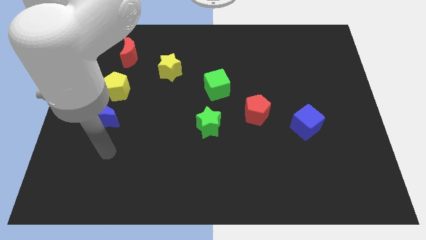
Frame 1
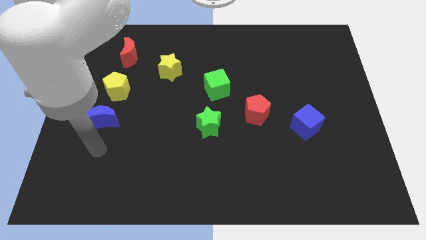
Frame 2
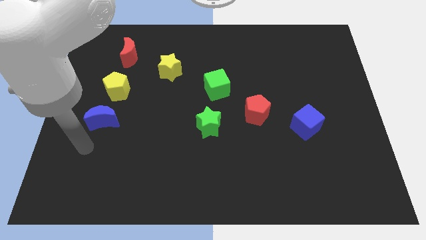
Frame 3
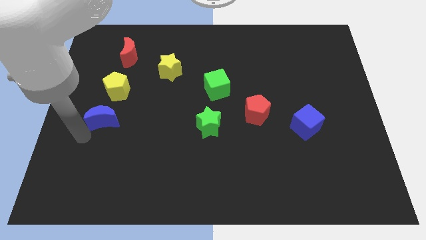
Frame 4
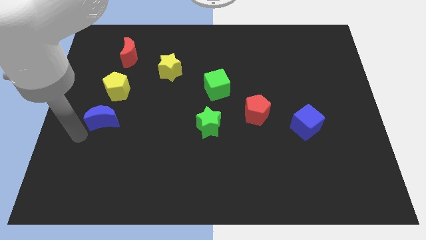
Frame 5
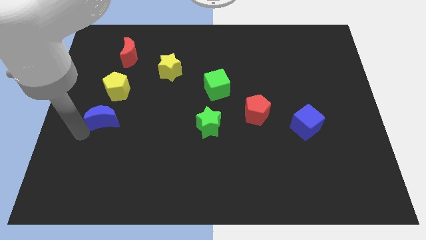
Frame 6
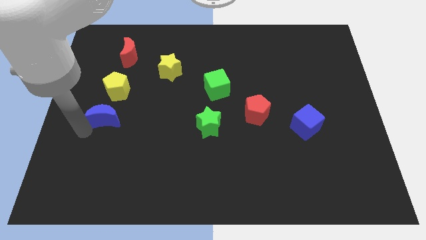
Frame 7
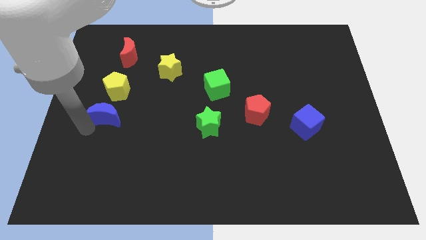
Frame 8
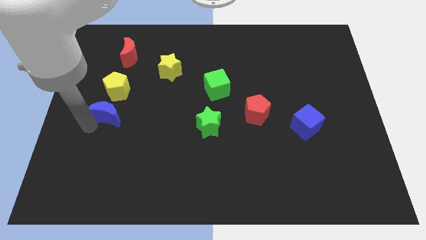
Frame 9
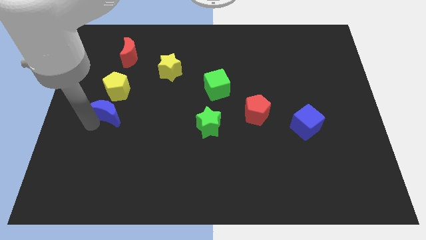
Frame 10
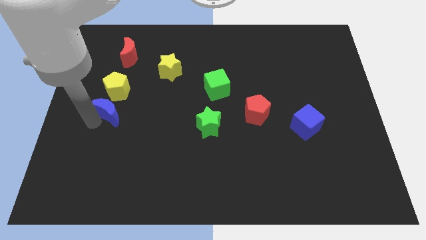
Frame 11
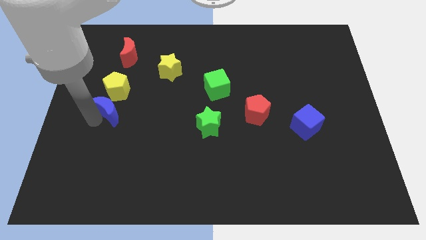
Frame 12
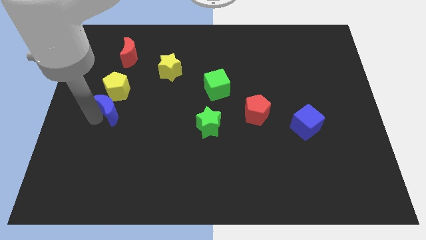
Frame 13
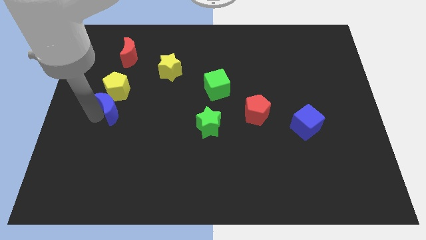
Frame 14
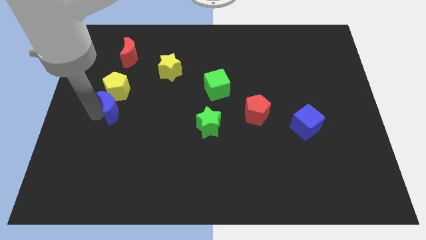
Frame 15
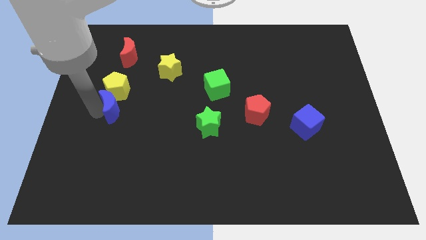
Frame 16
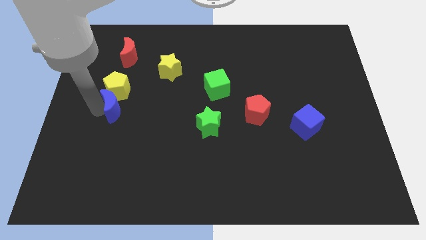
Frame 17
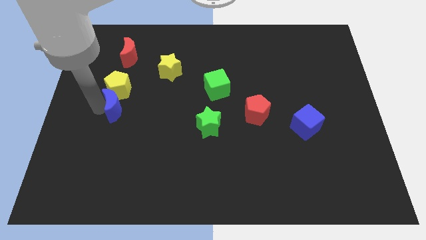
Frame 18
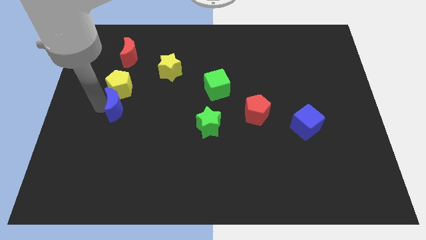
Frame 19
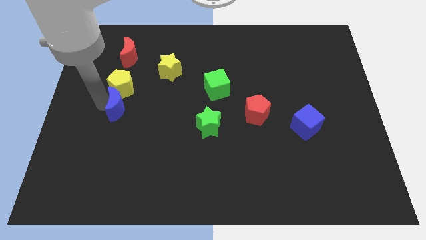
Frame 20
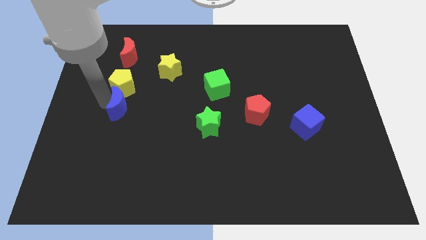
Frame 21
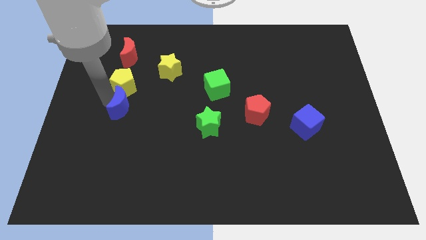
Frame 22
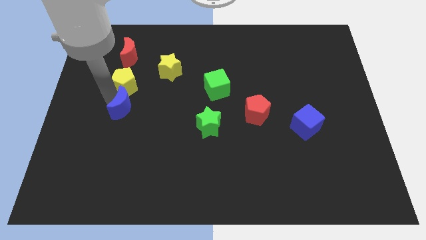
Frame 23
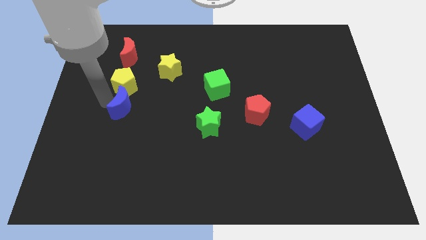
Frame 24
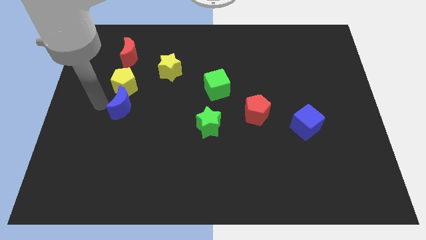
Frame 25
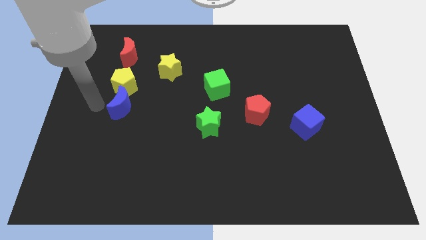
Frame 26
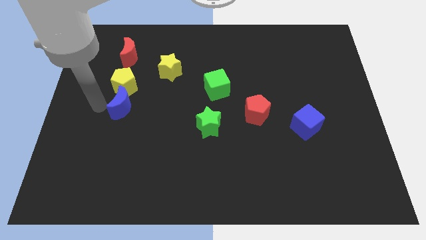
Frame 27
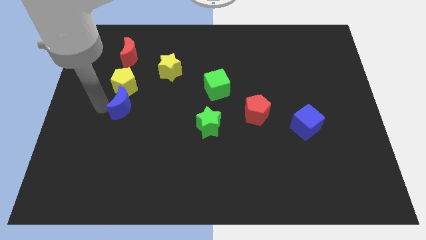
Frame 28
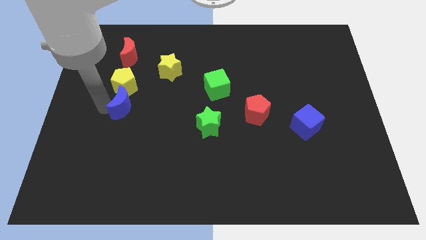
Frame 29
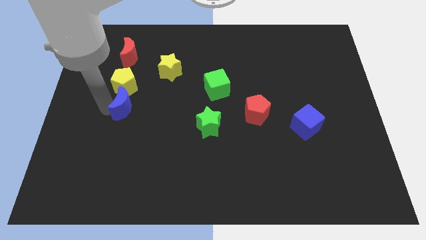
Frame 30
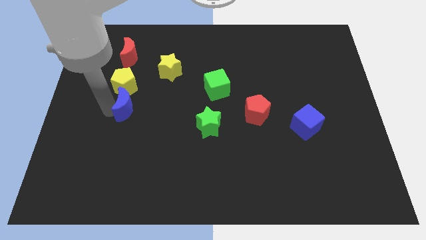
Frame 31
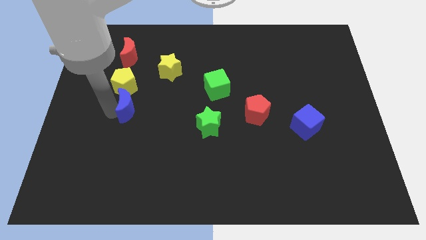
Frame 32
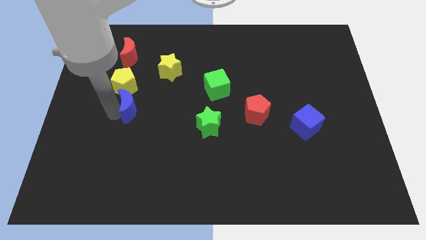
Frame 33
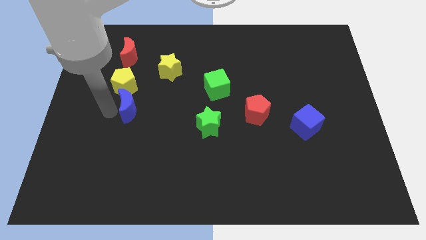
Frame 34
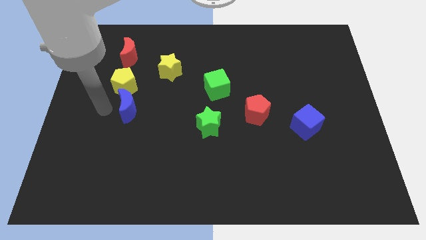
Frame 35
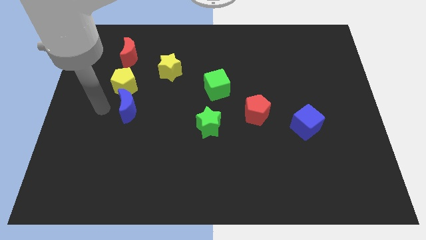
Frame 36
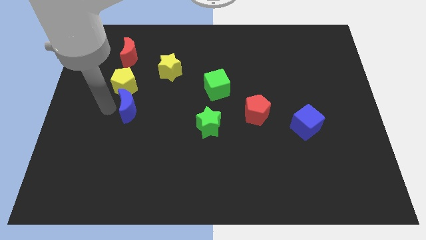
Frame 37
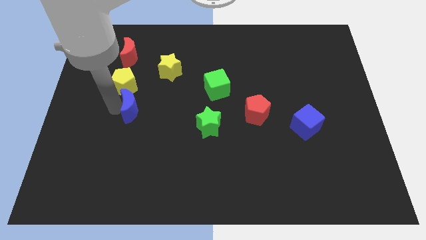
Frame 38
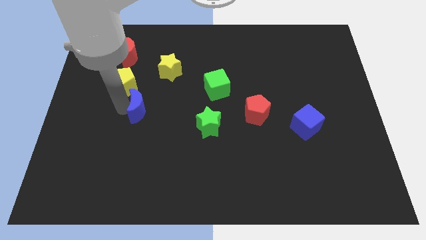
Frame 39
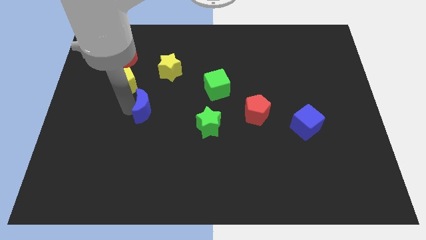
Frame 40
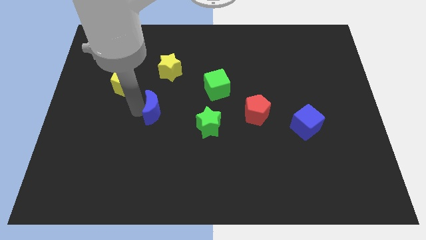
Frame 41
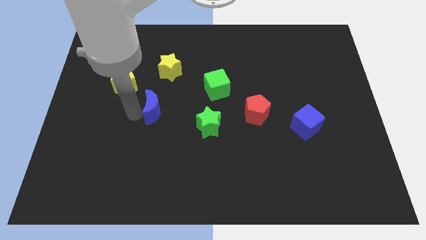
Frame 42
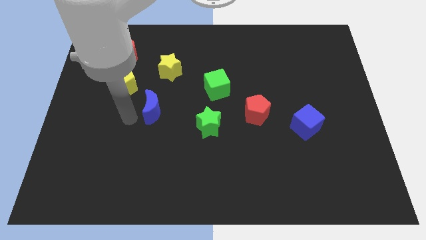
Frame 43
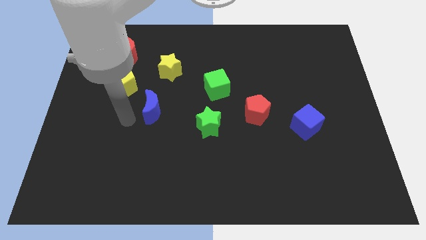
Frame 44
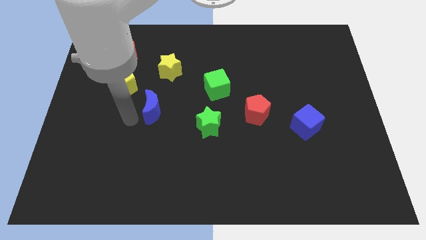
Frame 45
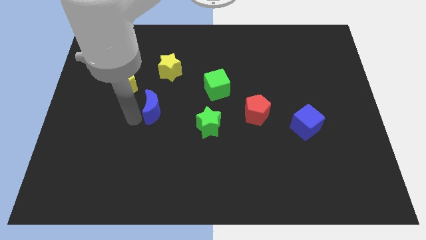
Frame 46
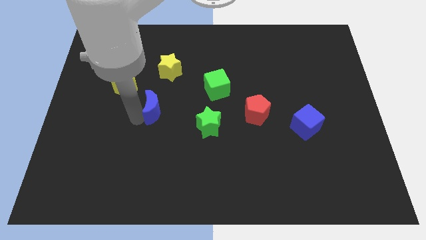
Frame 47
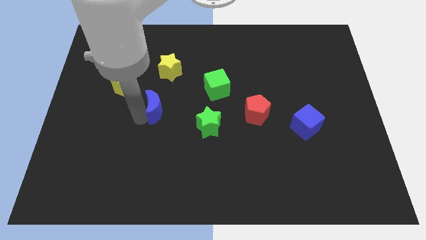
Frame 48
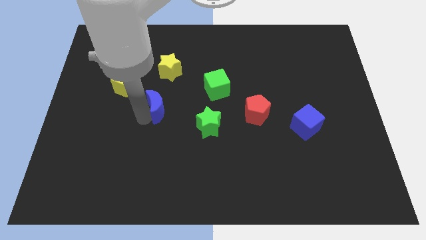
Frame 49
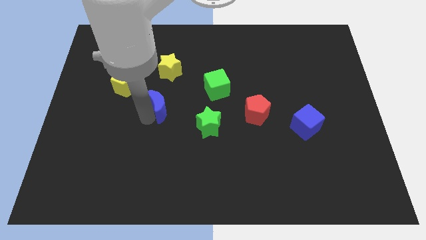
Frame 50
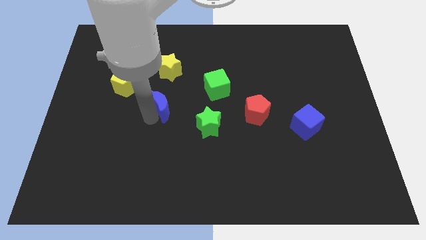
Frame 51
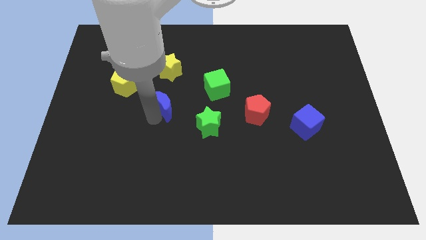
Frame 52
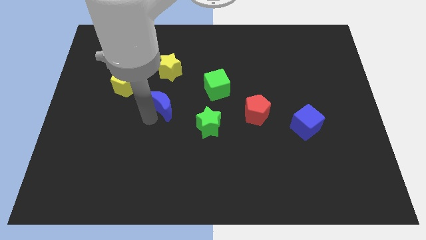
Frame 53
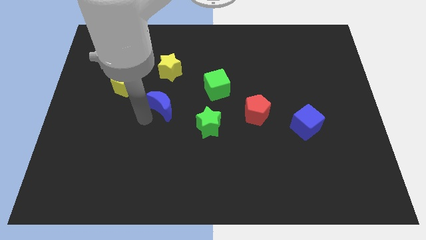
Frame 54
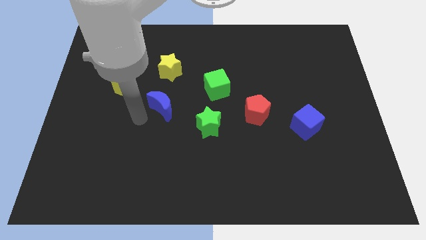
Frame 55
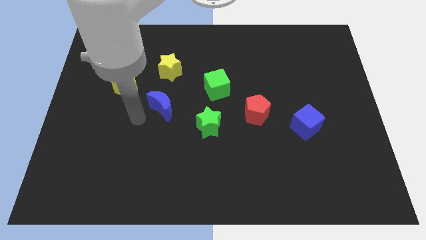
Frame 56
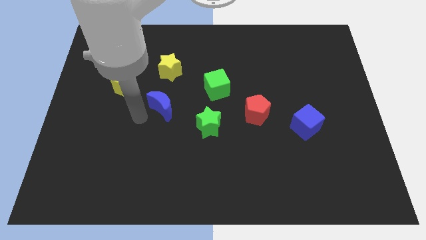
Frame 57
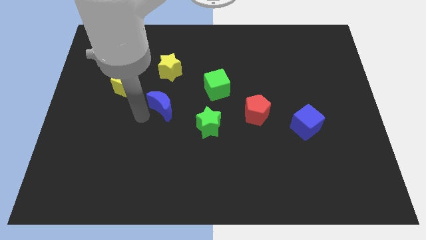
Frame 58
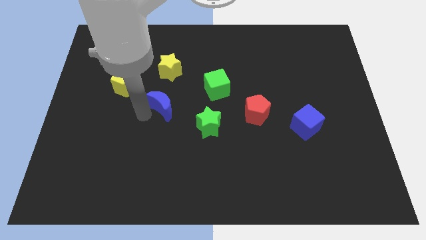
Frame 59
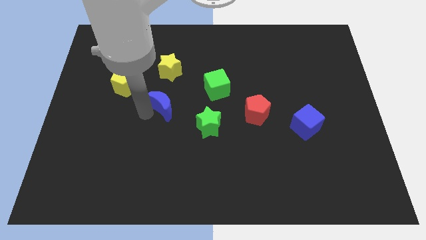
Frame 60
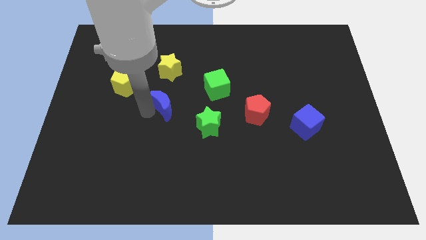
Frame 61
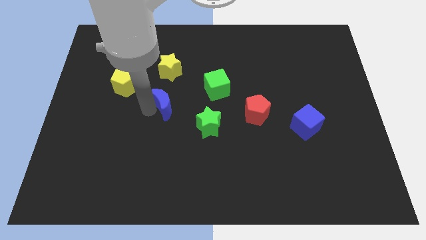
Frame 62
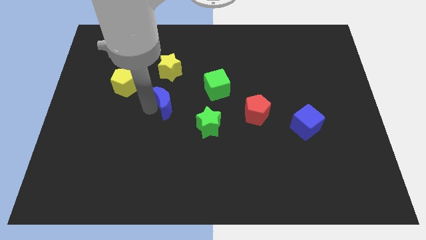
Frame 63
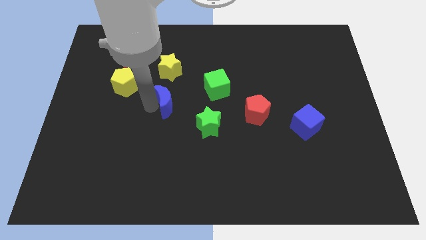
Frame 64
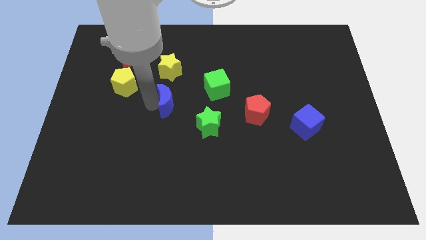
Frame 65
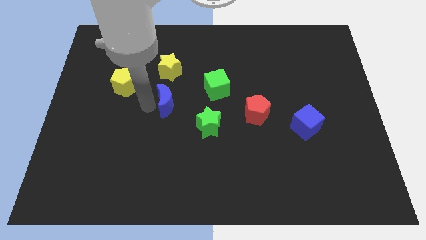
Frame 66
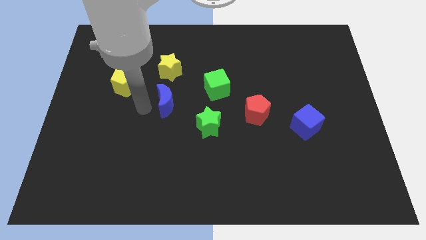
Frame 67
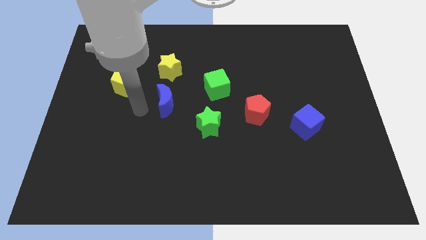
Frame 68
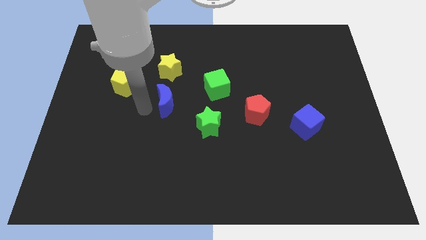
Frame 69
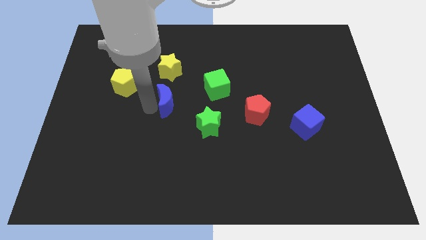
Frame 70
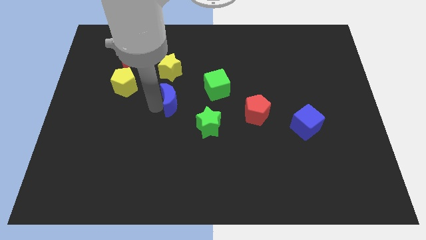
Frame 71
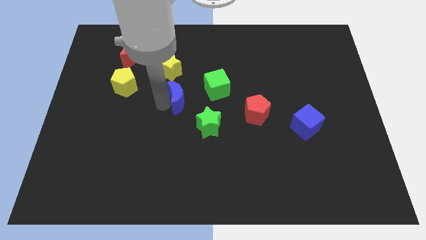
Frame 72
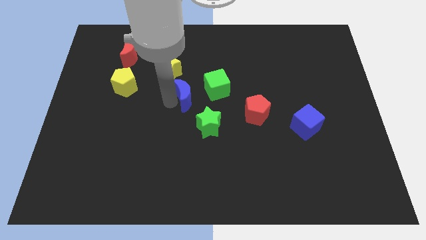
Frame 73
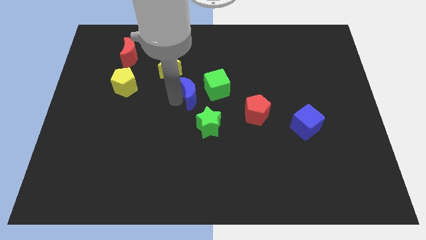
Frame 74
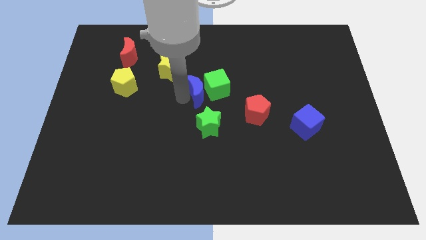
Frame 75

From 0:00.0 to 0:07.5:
put the blue moon towards the green cube
